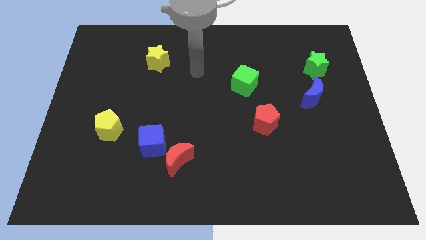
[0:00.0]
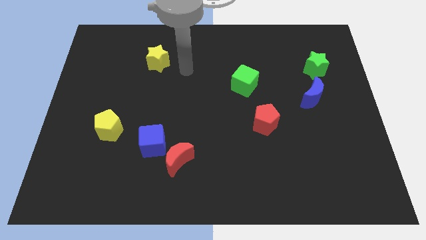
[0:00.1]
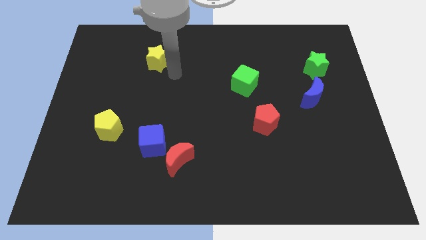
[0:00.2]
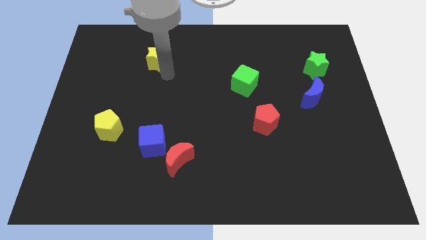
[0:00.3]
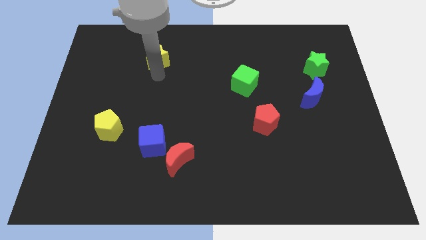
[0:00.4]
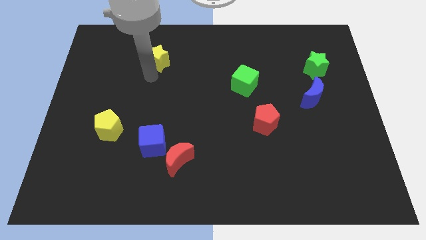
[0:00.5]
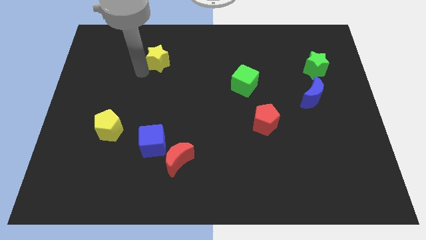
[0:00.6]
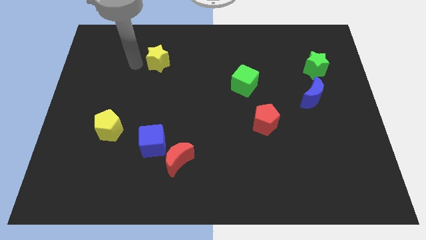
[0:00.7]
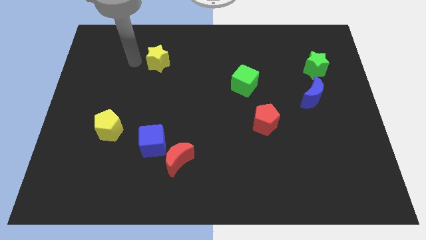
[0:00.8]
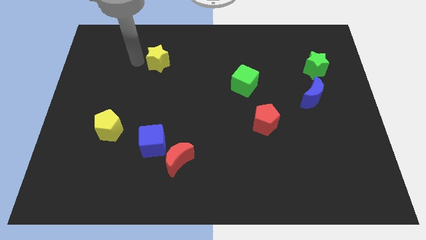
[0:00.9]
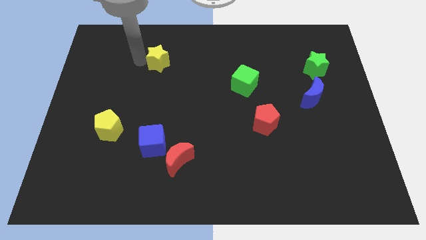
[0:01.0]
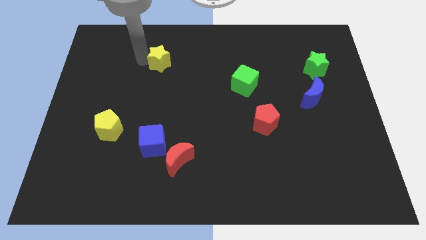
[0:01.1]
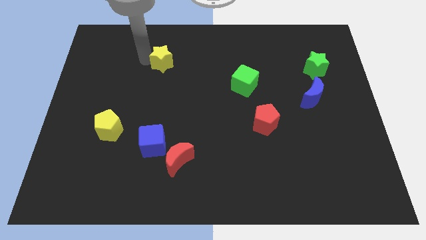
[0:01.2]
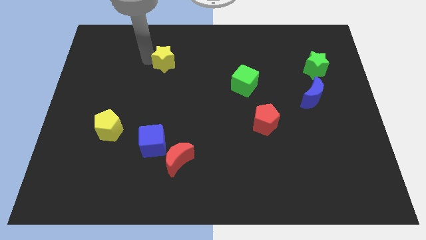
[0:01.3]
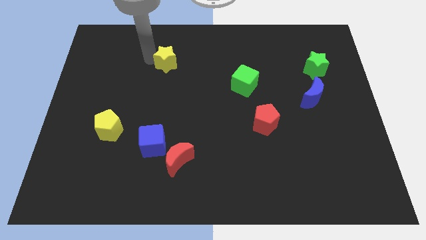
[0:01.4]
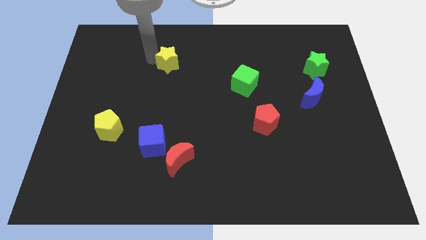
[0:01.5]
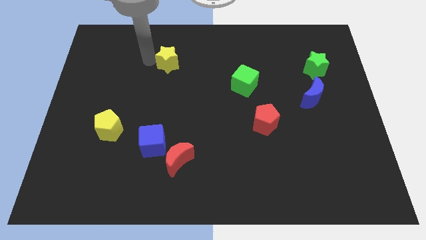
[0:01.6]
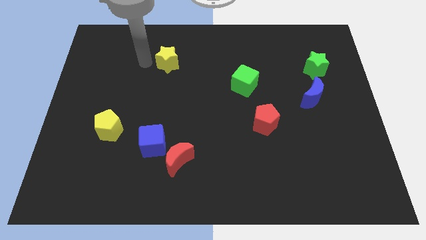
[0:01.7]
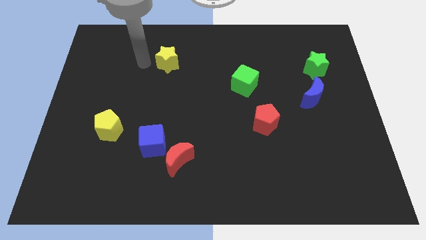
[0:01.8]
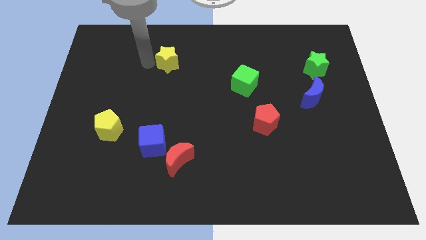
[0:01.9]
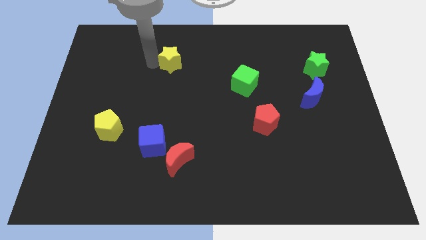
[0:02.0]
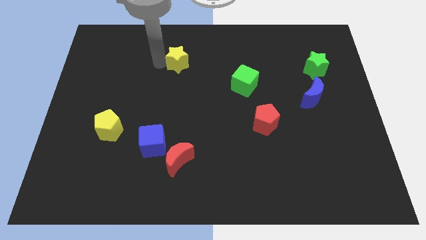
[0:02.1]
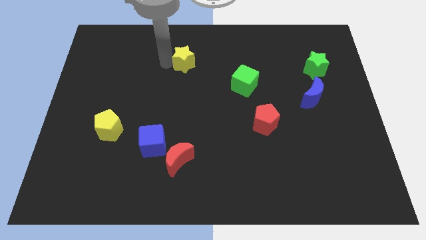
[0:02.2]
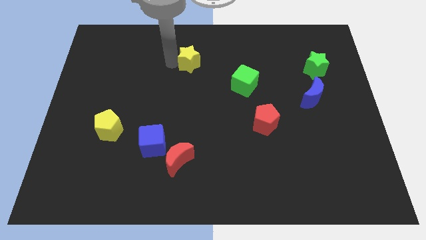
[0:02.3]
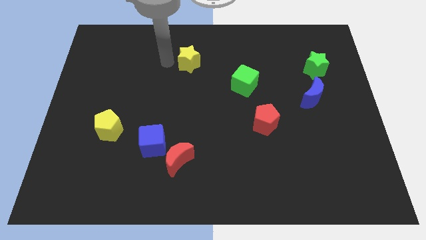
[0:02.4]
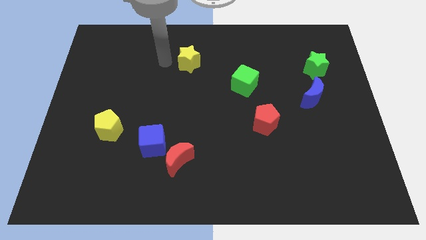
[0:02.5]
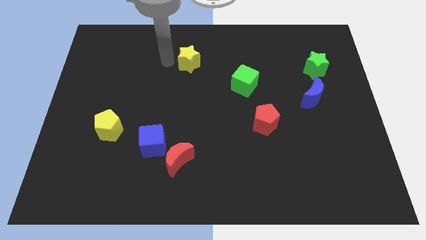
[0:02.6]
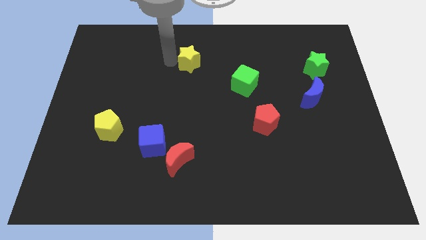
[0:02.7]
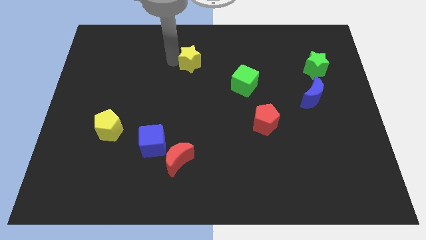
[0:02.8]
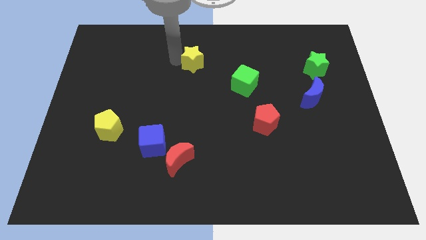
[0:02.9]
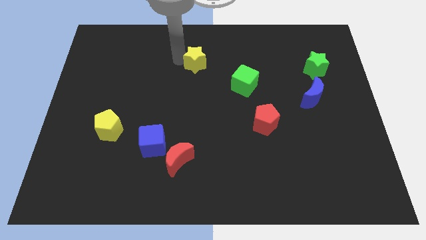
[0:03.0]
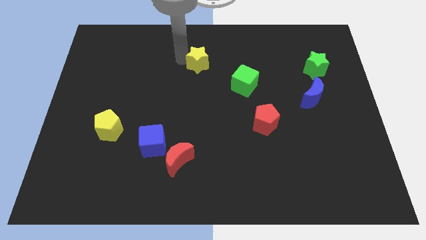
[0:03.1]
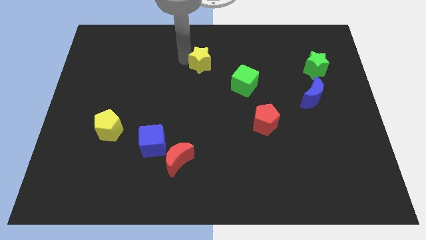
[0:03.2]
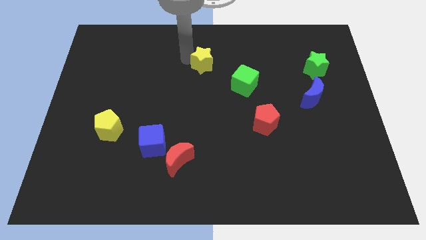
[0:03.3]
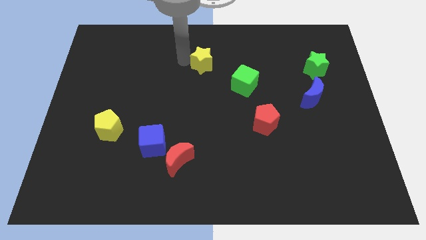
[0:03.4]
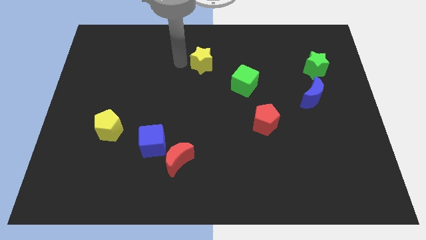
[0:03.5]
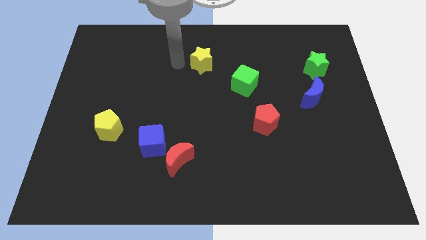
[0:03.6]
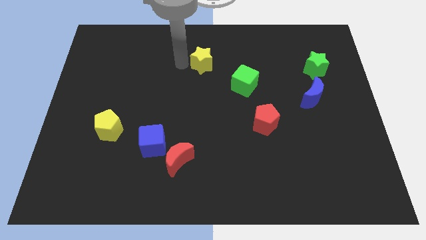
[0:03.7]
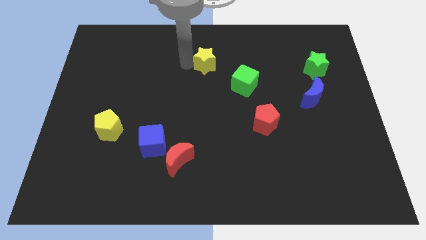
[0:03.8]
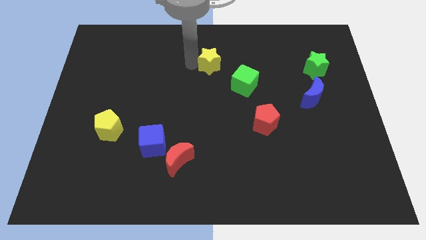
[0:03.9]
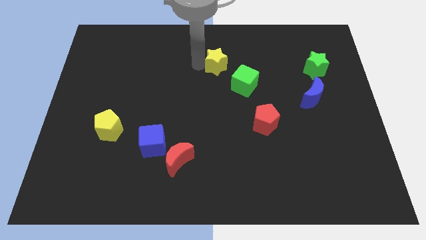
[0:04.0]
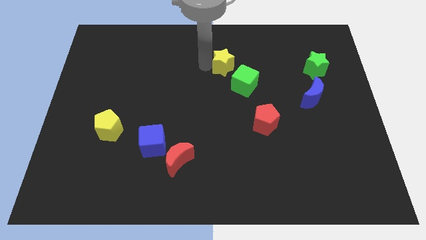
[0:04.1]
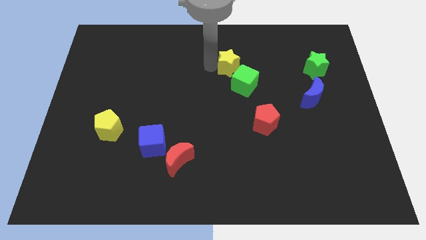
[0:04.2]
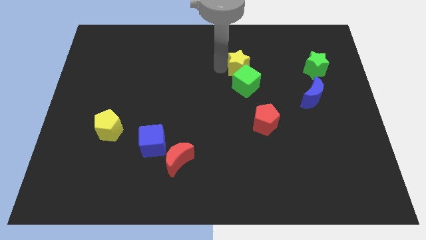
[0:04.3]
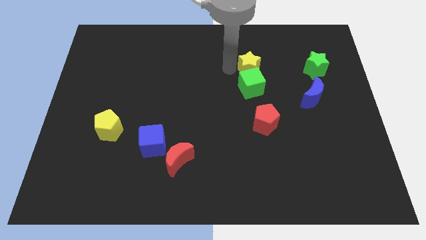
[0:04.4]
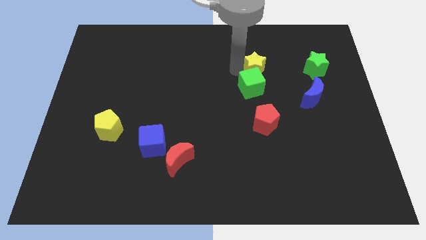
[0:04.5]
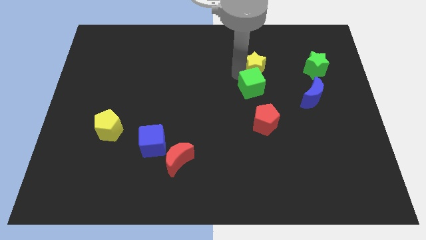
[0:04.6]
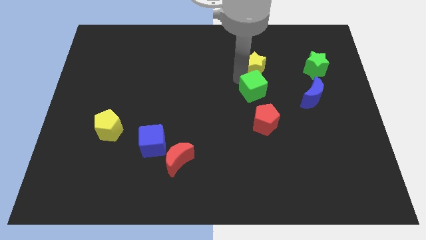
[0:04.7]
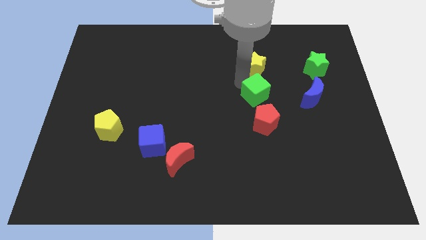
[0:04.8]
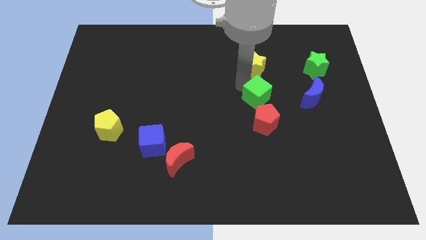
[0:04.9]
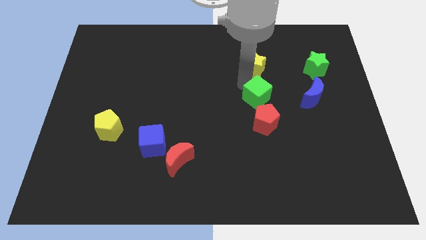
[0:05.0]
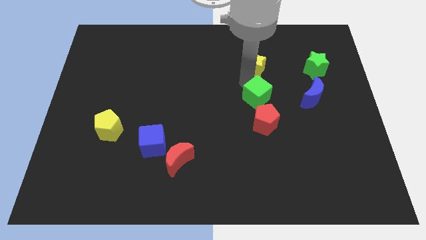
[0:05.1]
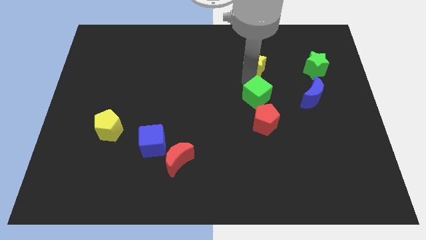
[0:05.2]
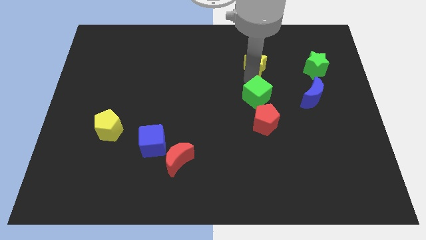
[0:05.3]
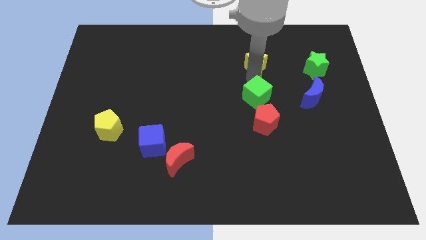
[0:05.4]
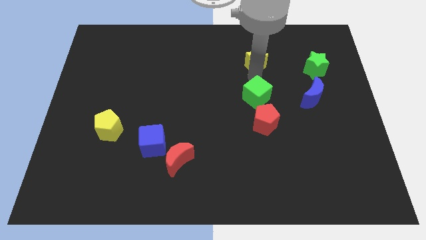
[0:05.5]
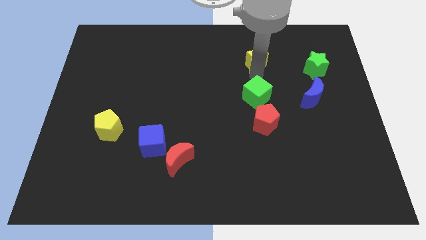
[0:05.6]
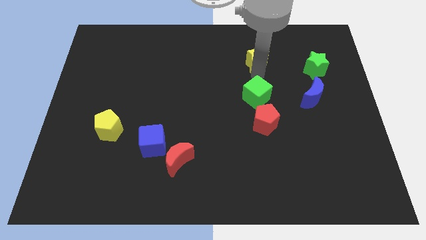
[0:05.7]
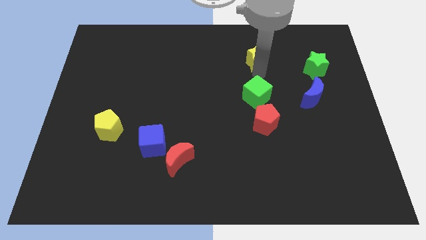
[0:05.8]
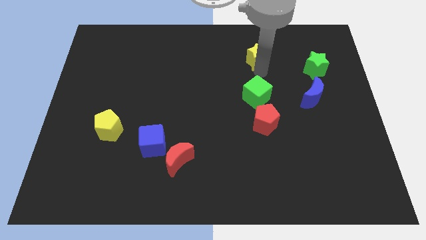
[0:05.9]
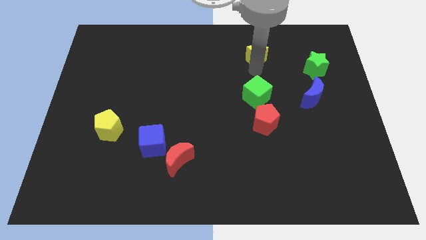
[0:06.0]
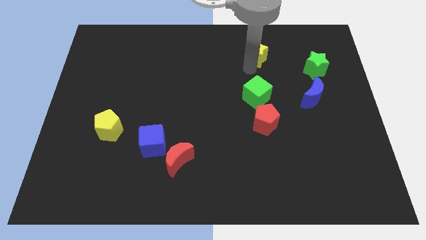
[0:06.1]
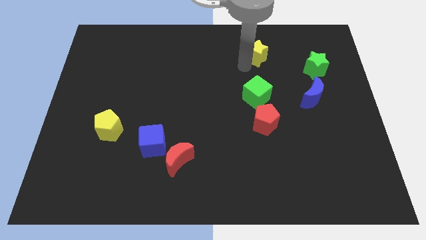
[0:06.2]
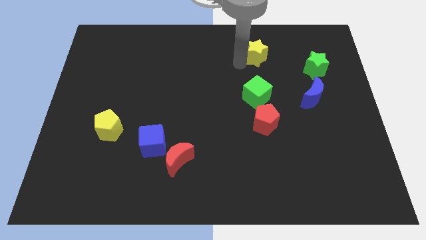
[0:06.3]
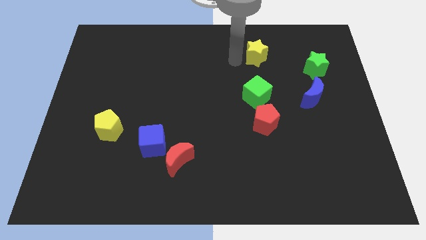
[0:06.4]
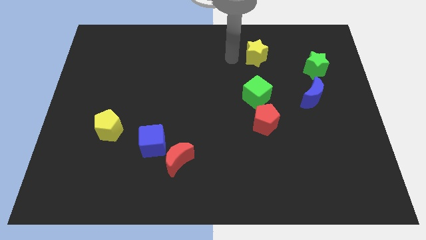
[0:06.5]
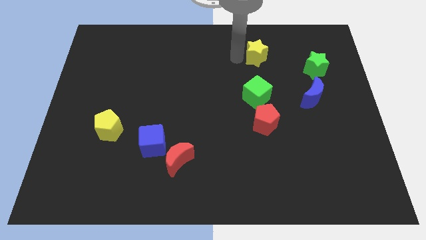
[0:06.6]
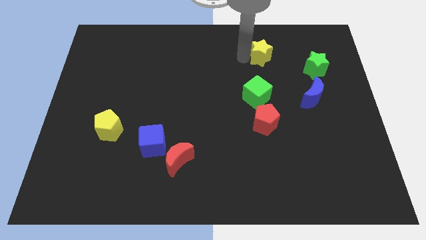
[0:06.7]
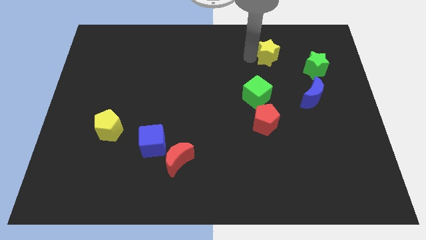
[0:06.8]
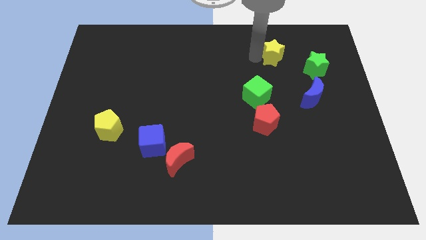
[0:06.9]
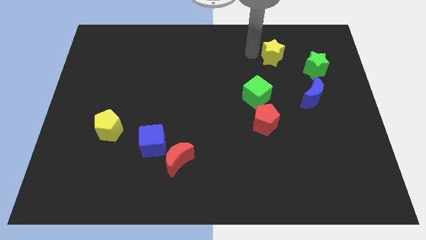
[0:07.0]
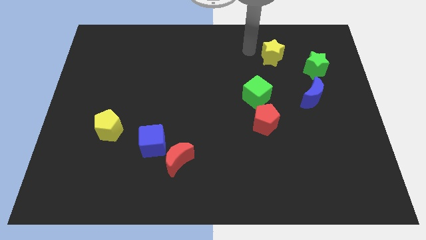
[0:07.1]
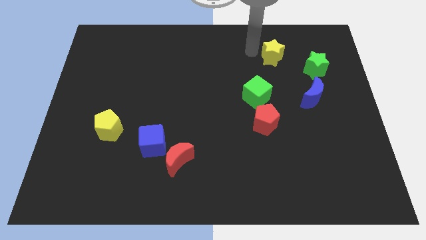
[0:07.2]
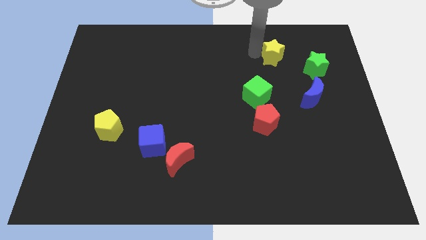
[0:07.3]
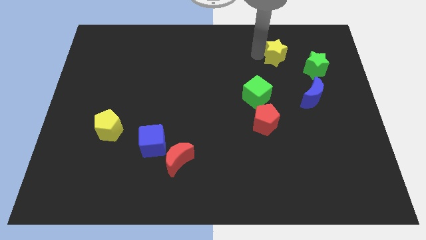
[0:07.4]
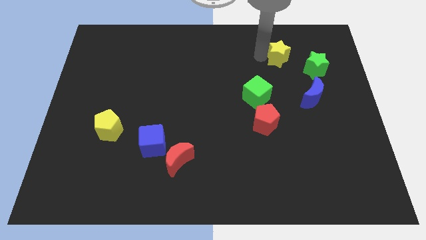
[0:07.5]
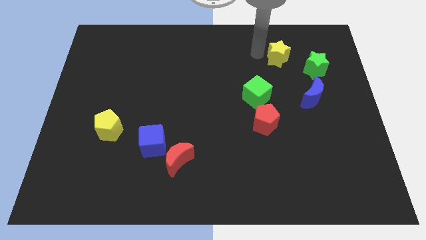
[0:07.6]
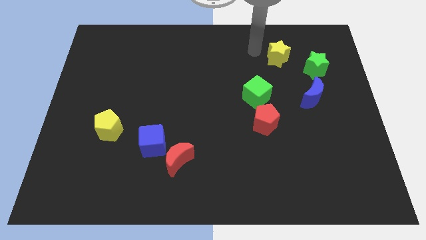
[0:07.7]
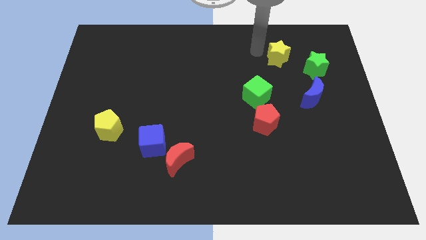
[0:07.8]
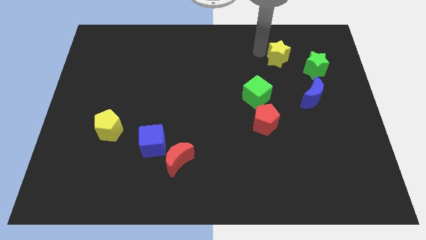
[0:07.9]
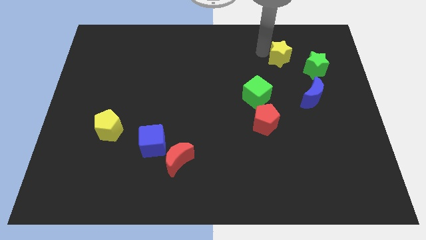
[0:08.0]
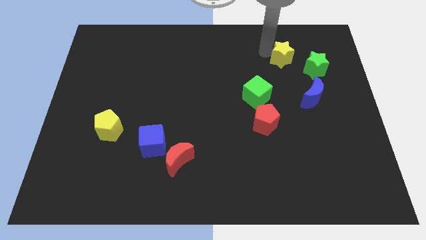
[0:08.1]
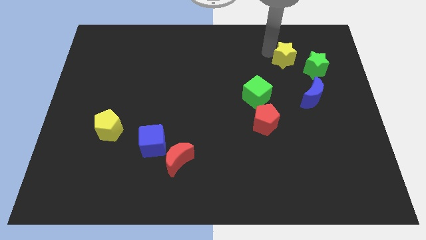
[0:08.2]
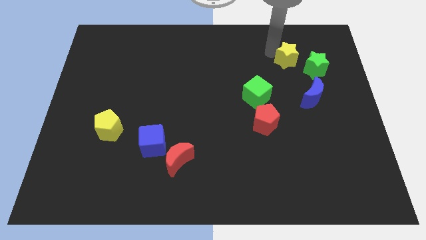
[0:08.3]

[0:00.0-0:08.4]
put the yellow star to the top of the blue moon

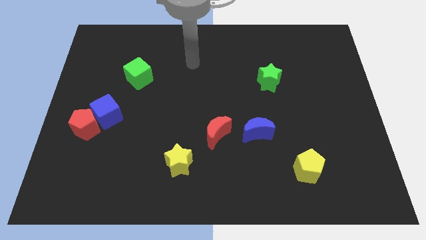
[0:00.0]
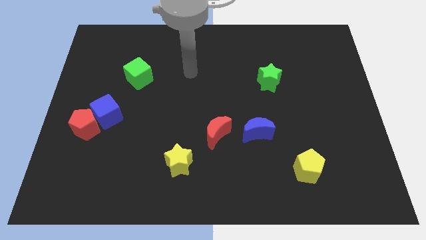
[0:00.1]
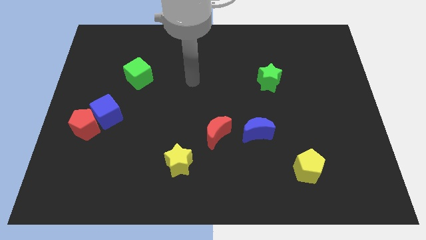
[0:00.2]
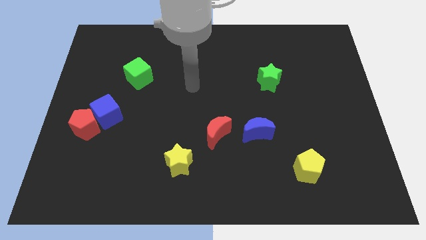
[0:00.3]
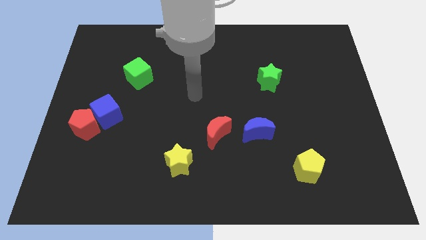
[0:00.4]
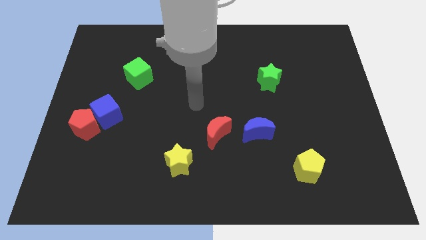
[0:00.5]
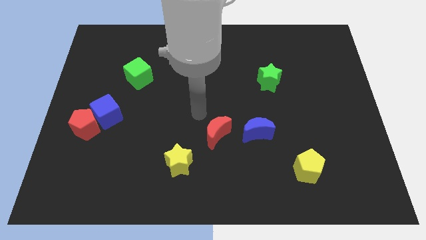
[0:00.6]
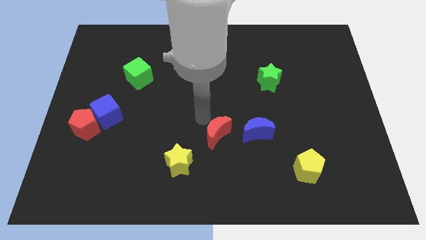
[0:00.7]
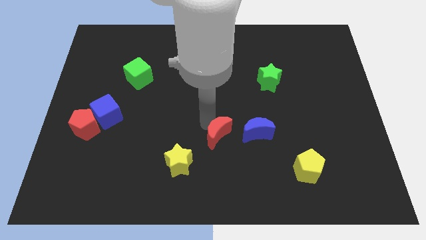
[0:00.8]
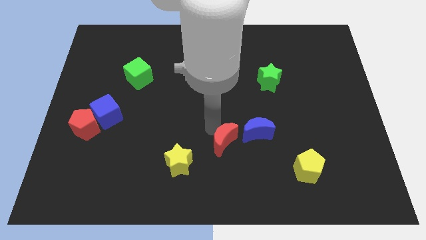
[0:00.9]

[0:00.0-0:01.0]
put the red moon to the bottom left side of the blue moon
